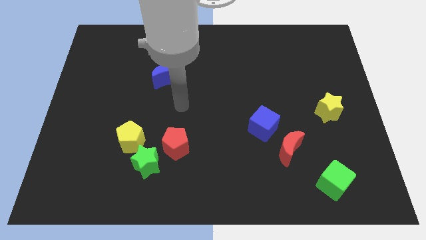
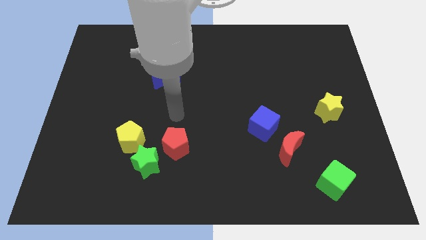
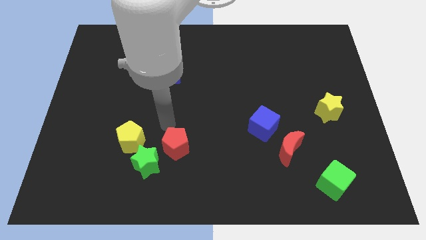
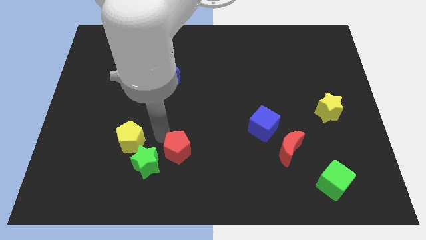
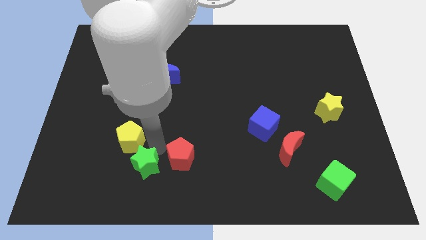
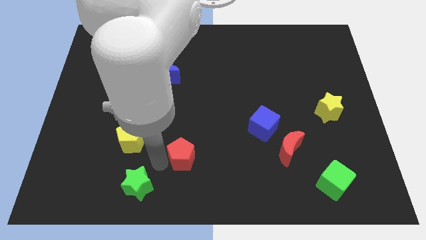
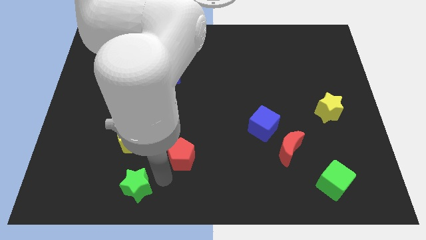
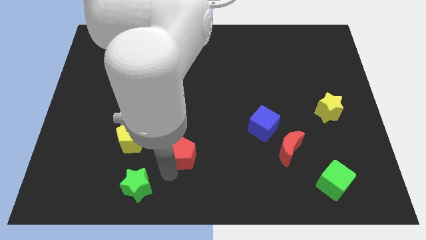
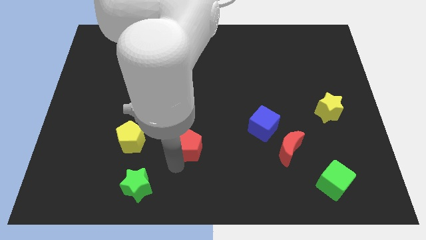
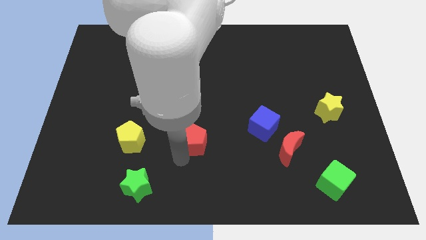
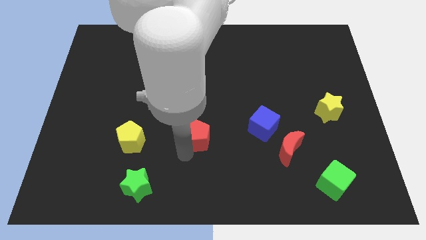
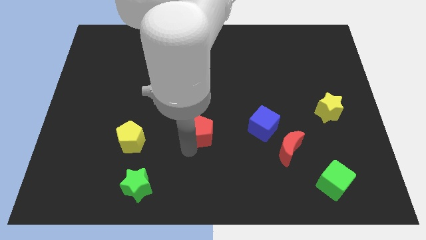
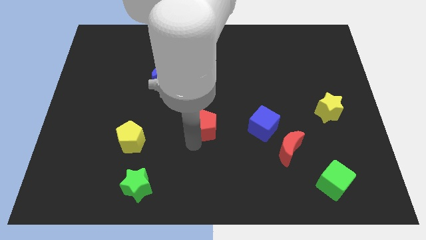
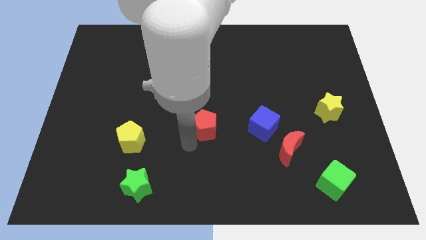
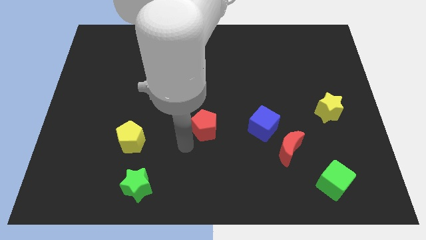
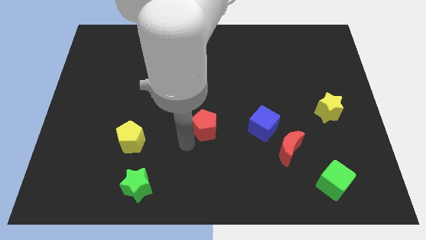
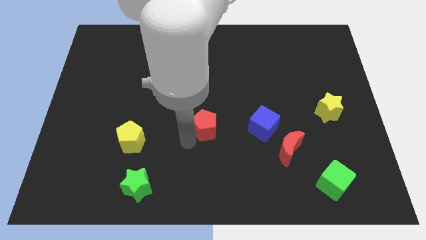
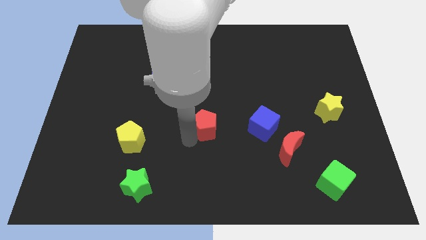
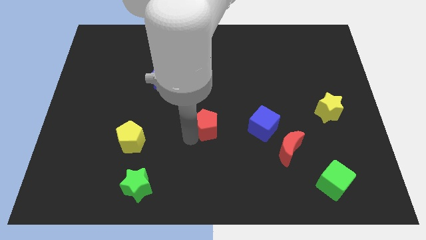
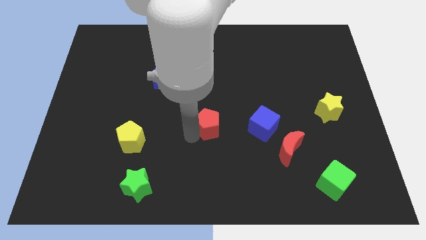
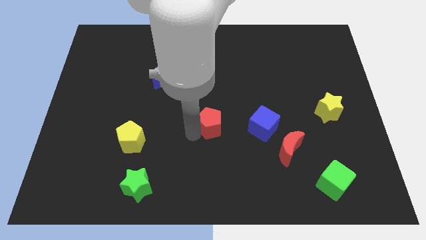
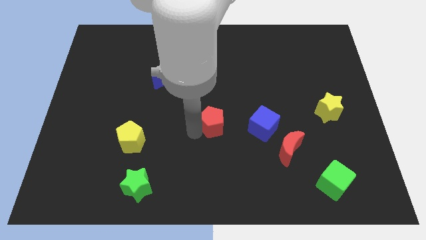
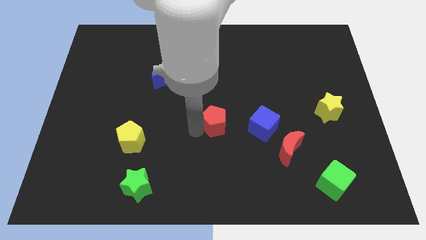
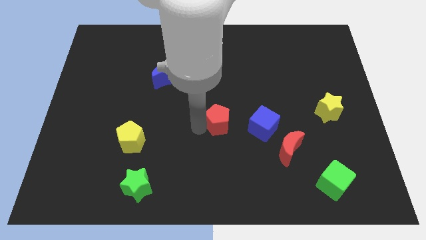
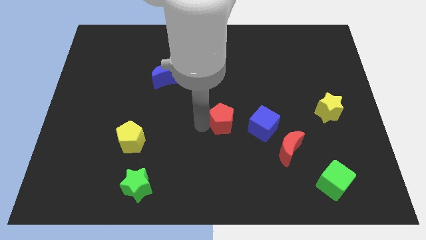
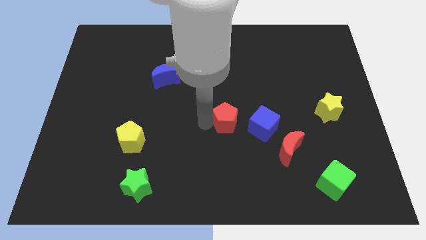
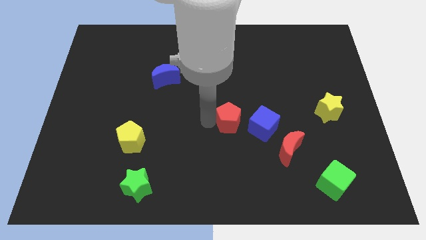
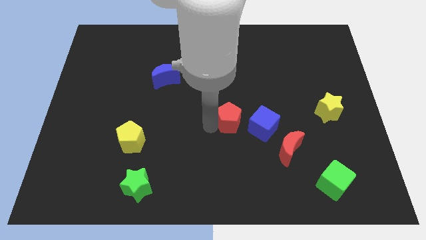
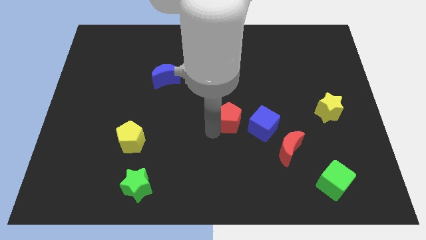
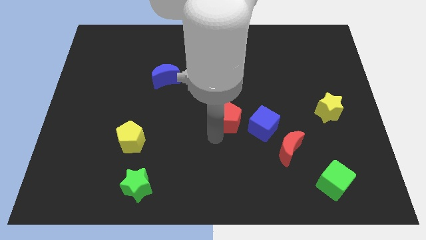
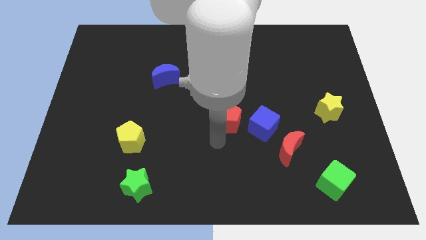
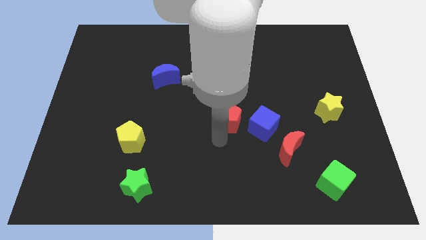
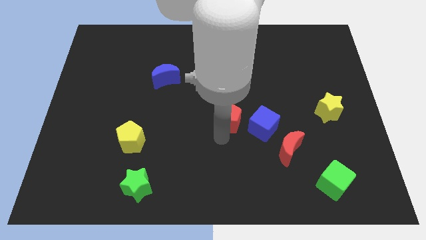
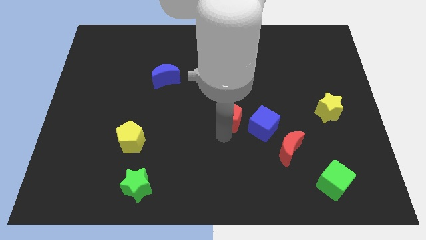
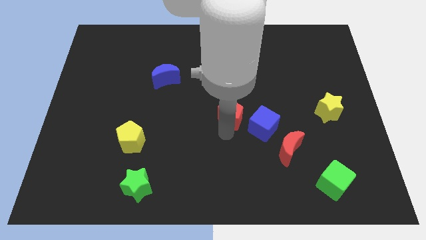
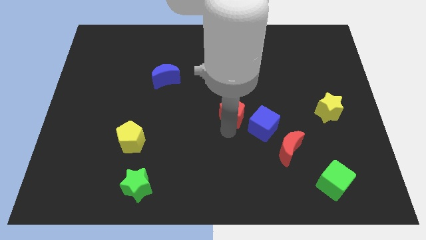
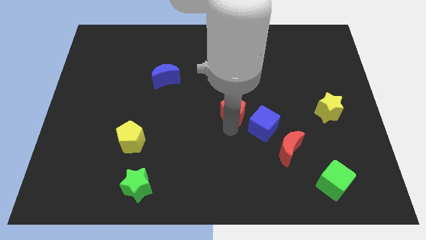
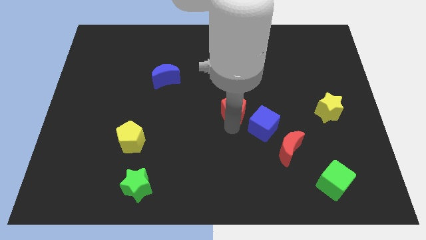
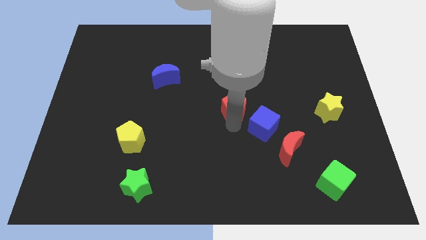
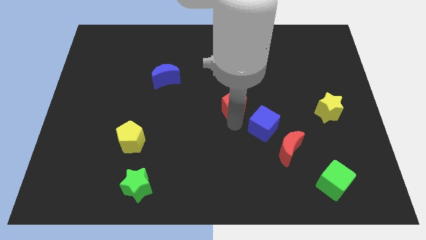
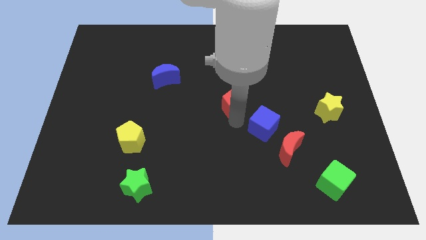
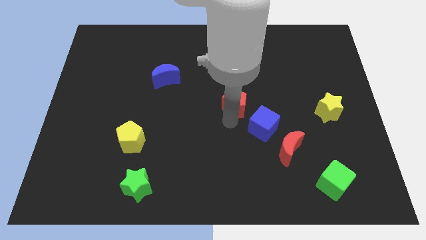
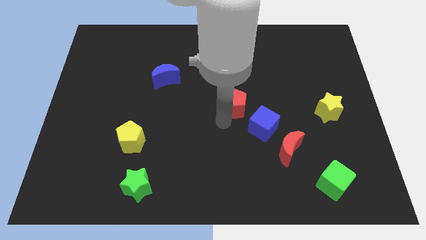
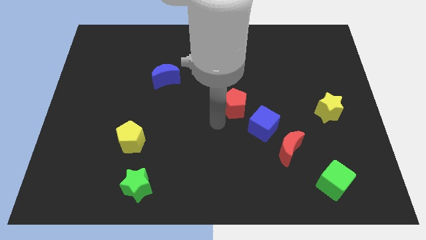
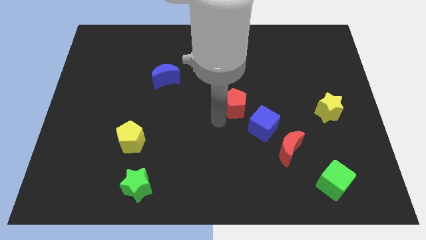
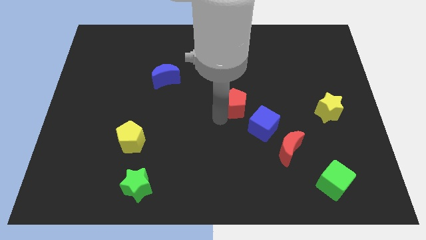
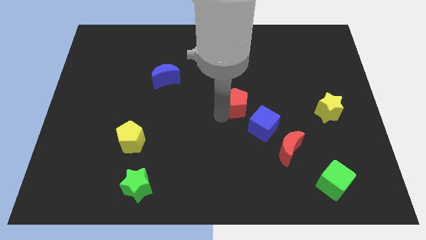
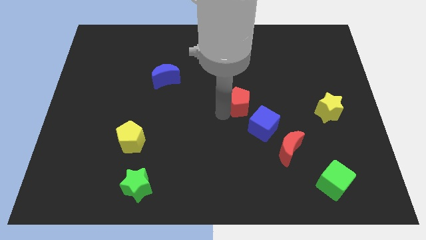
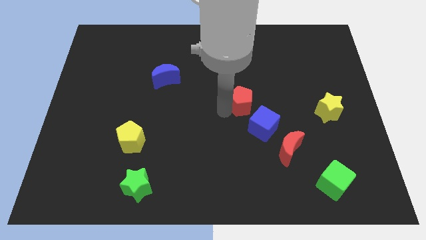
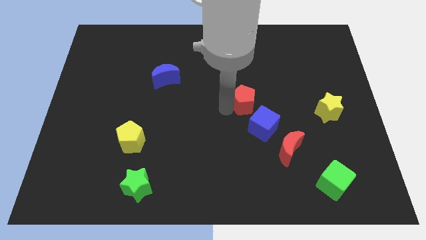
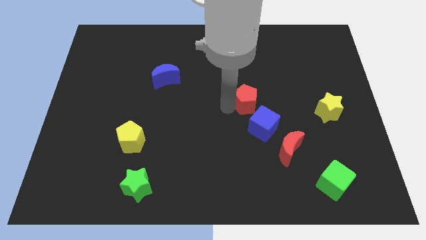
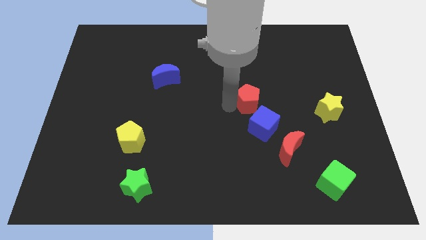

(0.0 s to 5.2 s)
move the red pentagon diagonally upwards and to the right

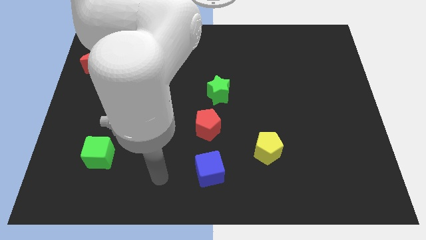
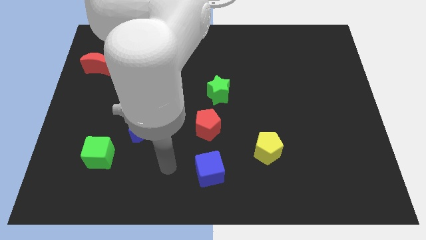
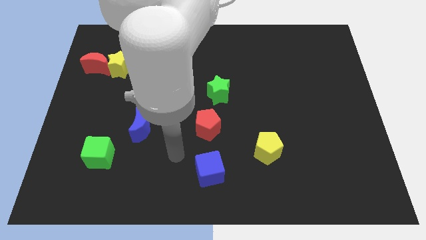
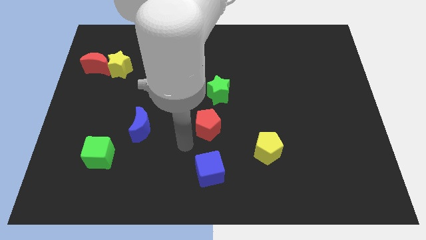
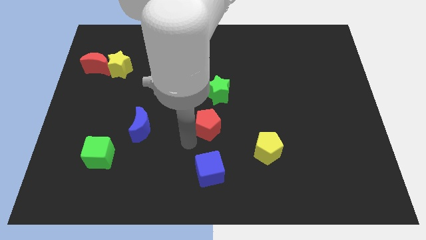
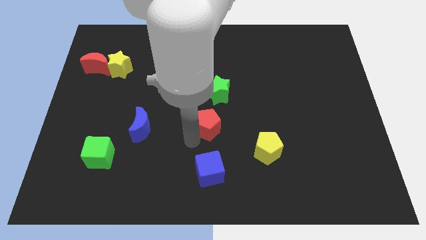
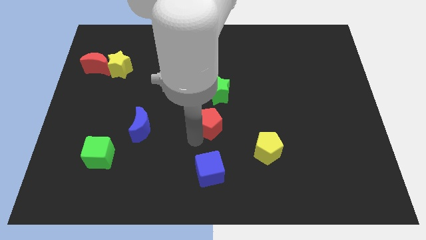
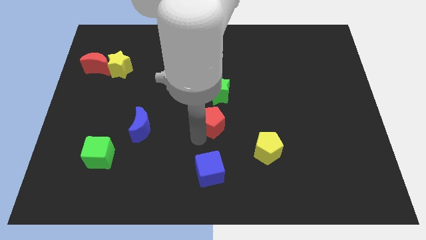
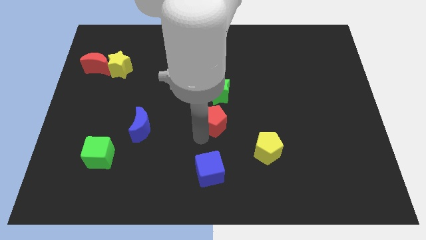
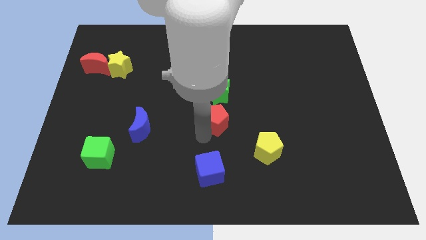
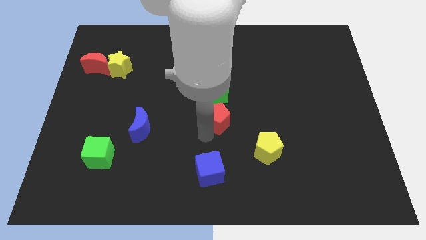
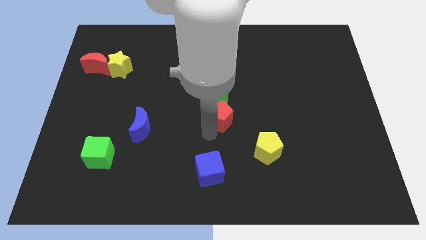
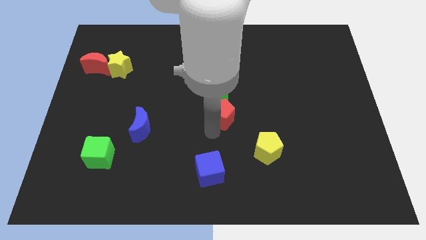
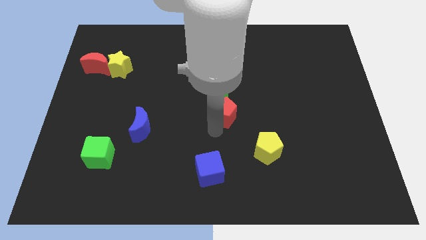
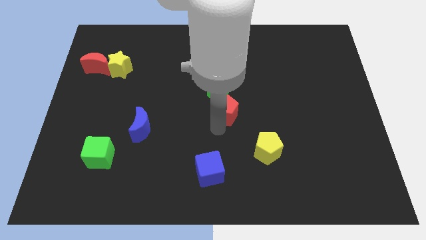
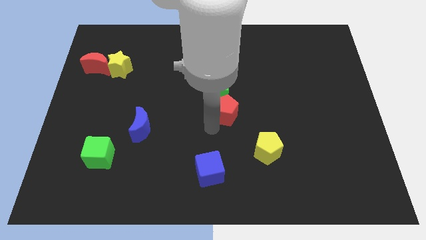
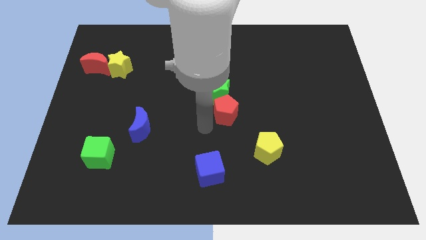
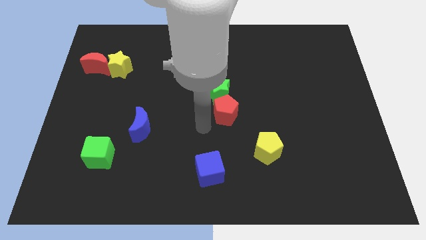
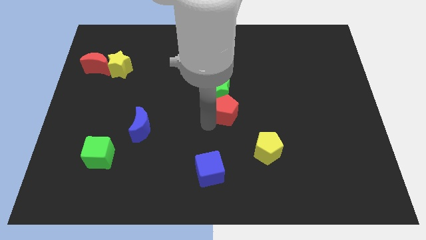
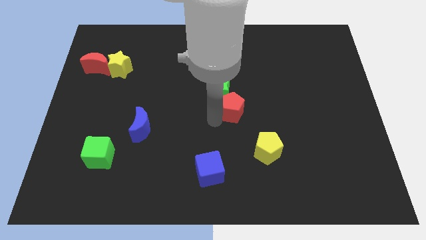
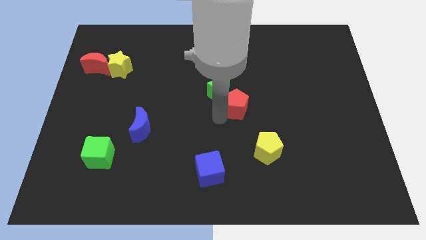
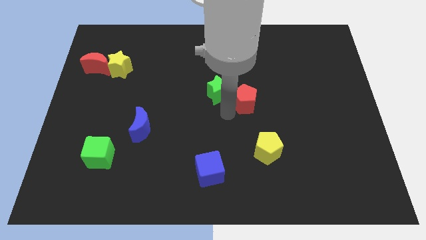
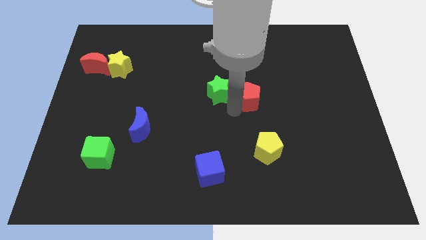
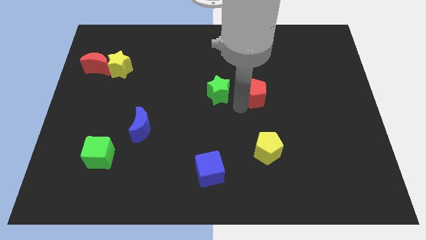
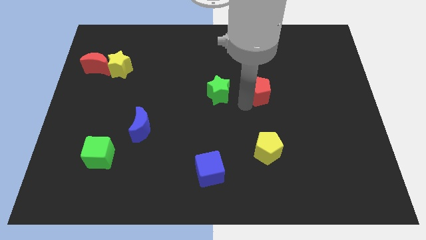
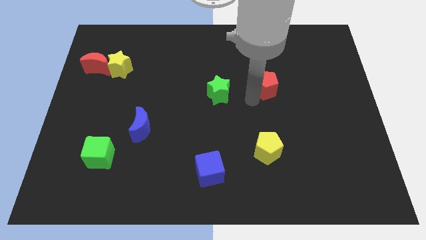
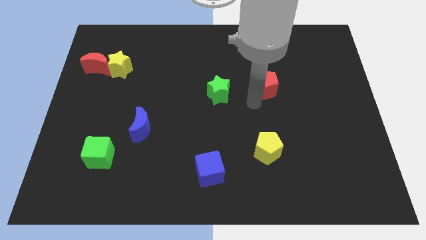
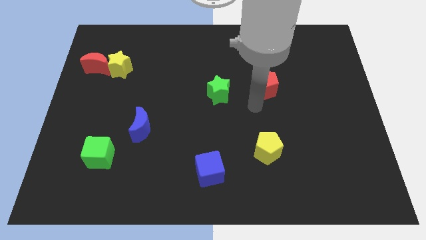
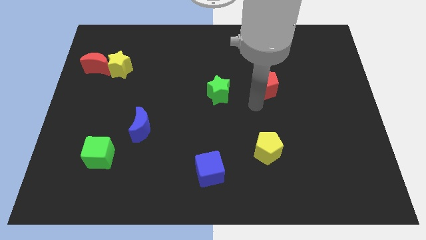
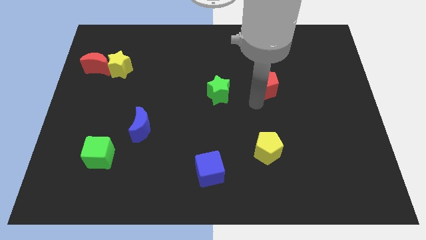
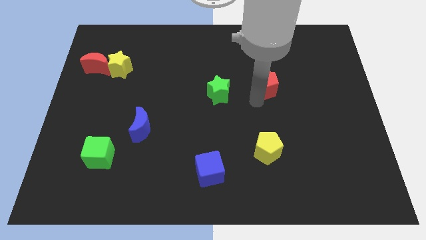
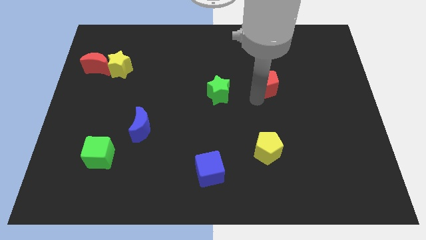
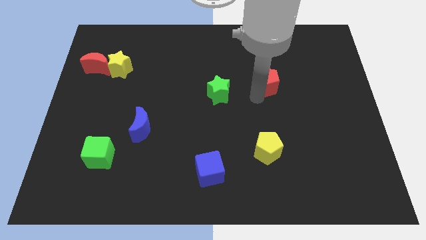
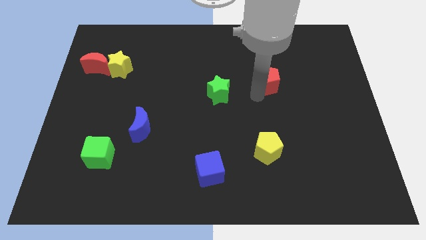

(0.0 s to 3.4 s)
push the red pentagon up and right
